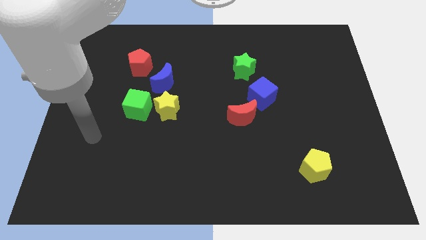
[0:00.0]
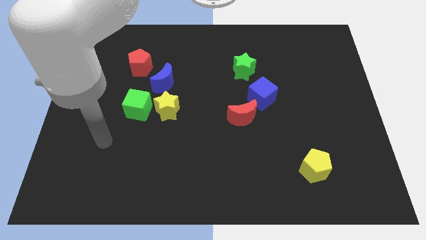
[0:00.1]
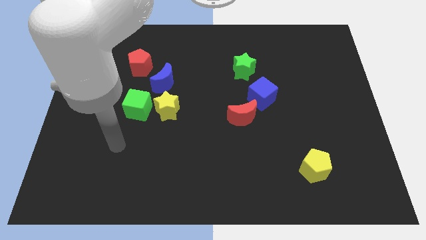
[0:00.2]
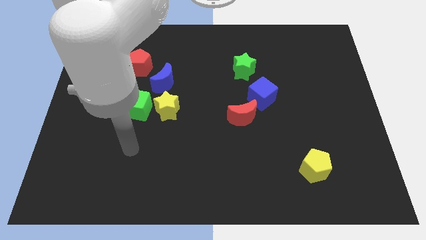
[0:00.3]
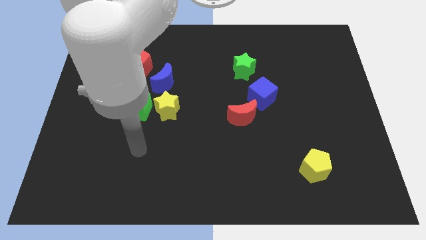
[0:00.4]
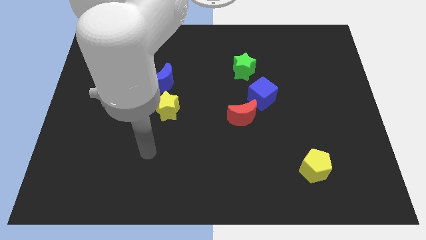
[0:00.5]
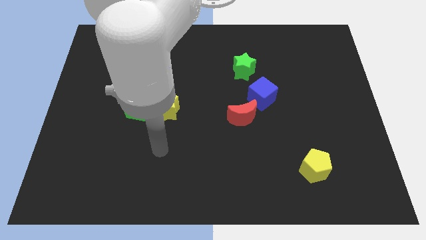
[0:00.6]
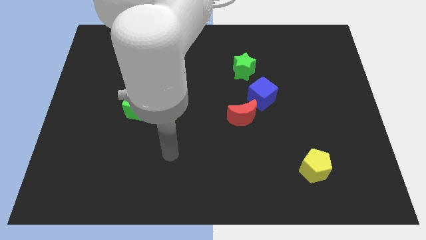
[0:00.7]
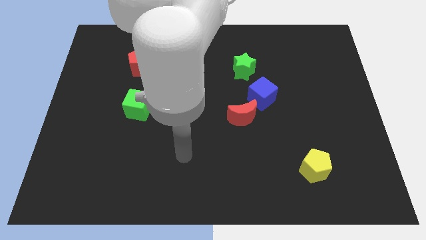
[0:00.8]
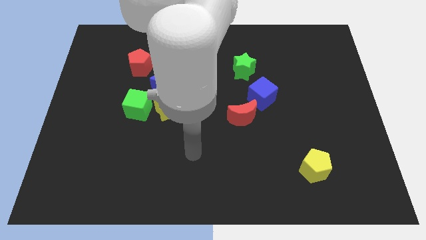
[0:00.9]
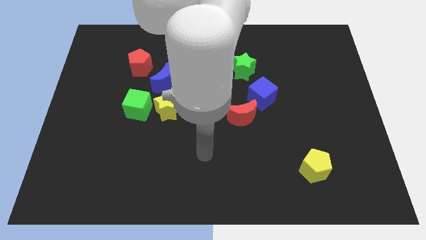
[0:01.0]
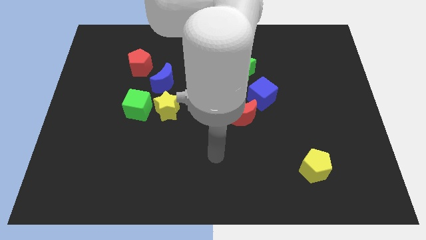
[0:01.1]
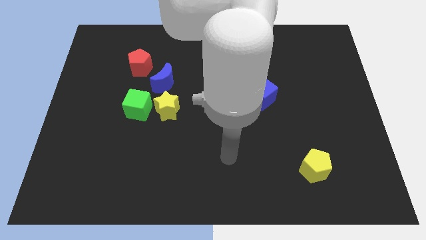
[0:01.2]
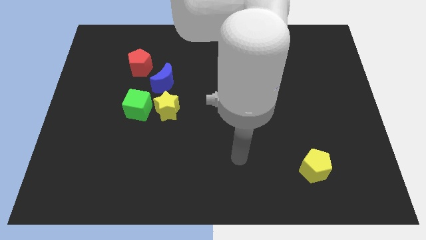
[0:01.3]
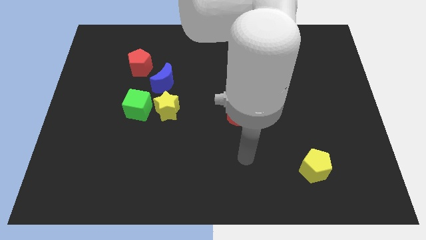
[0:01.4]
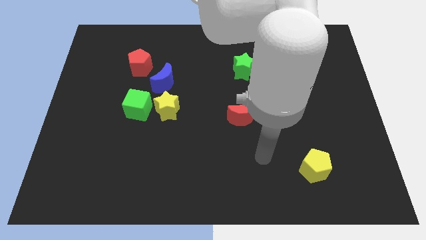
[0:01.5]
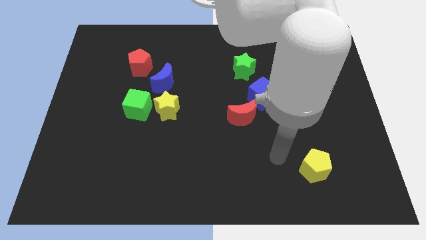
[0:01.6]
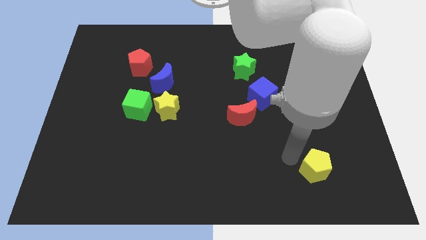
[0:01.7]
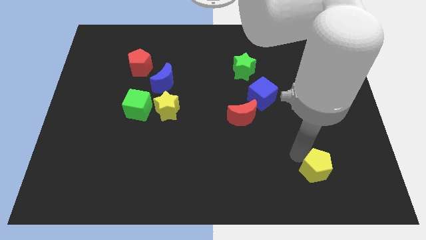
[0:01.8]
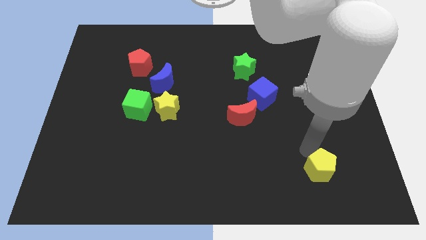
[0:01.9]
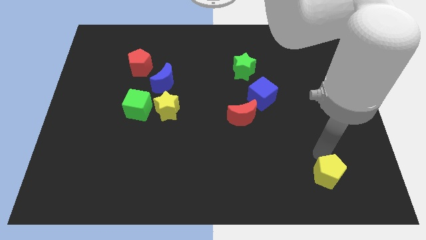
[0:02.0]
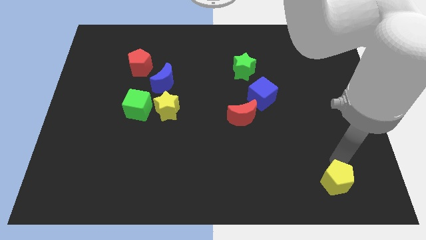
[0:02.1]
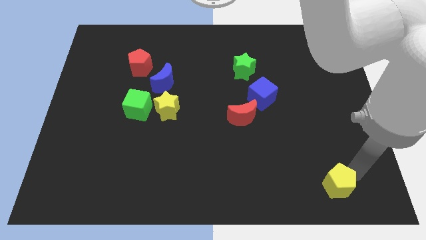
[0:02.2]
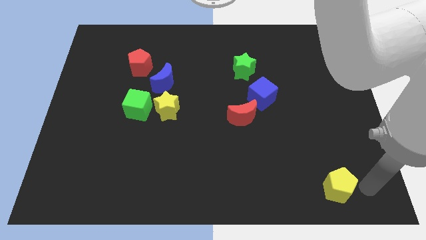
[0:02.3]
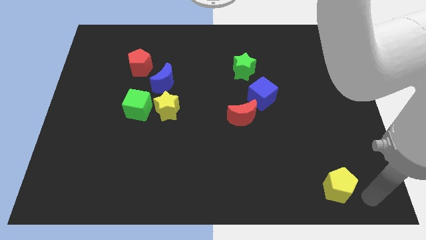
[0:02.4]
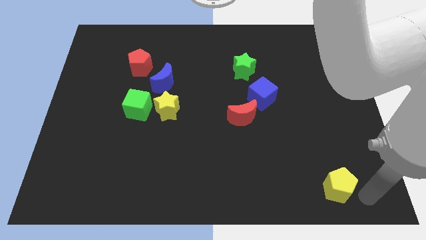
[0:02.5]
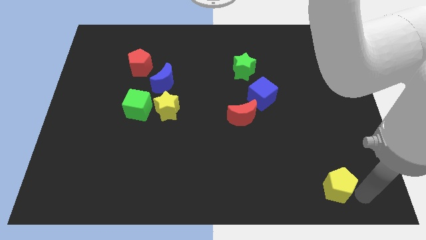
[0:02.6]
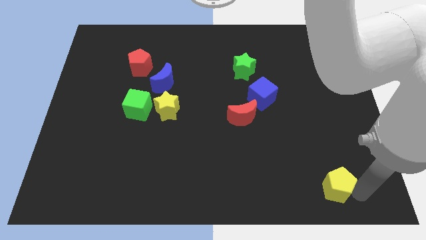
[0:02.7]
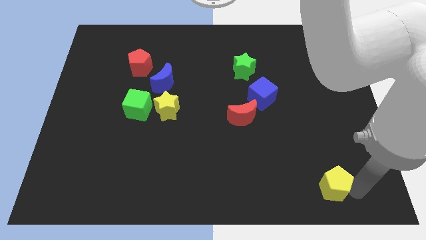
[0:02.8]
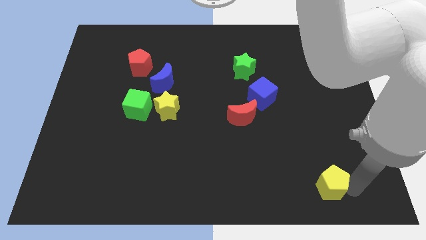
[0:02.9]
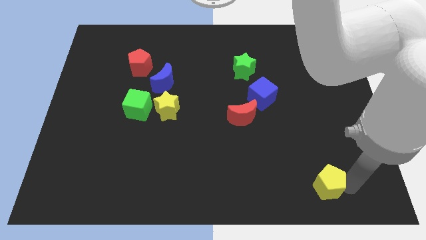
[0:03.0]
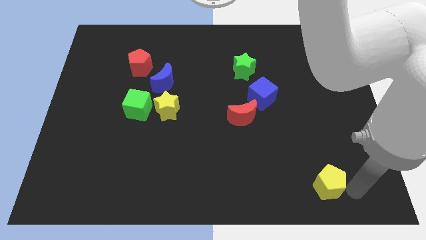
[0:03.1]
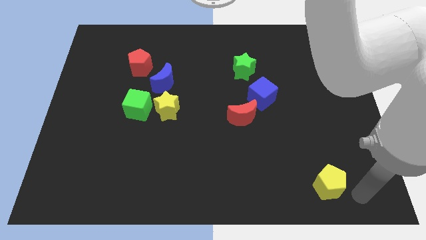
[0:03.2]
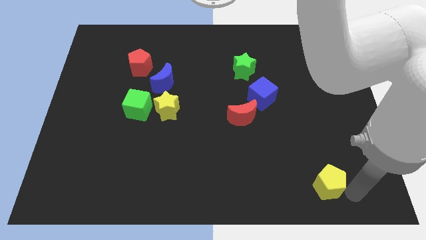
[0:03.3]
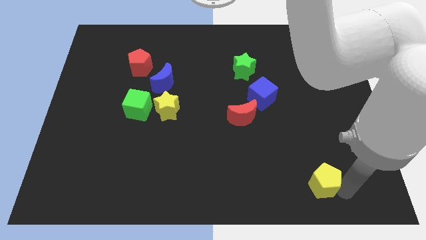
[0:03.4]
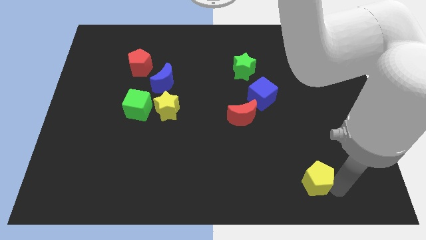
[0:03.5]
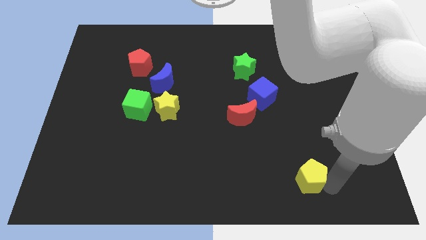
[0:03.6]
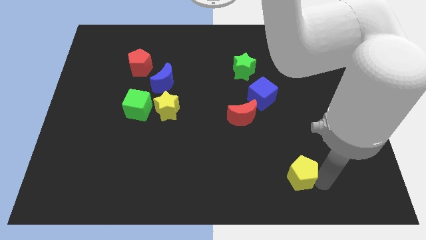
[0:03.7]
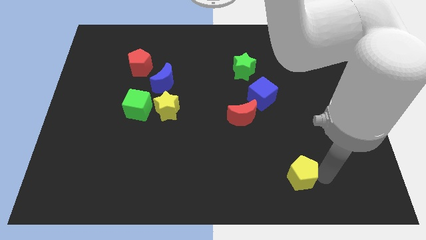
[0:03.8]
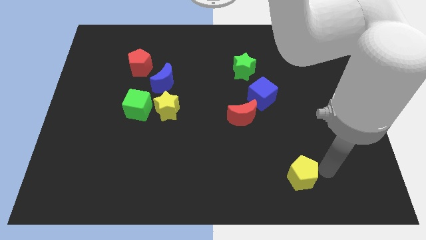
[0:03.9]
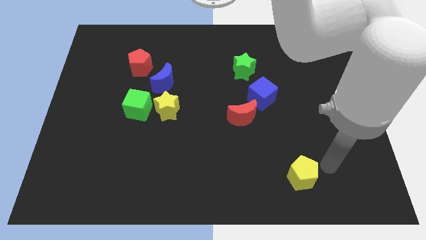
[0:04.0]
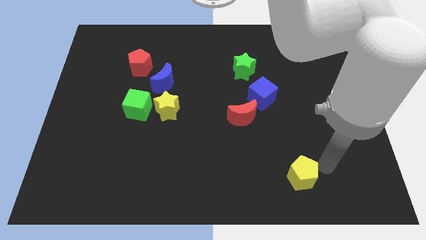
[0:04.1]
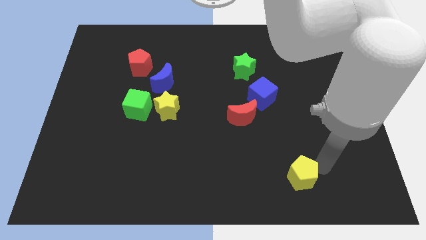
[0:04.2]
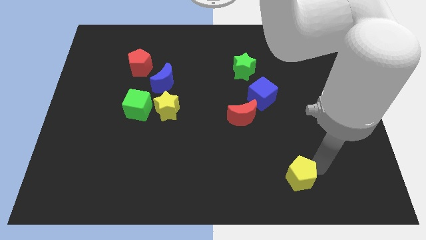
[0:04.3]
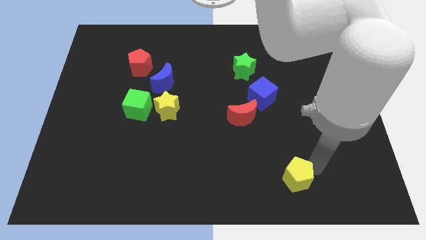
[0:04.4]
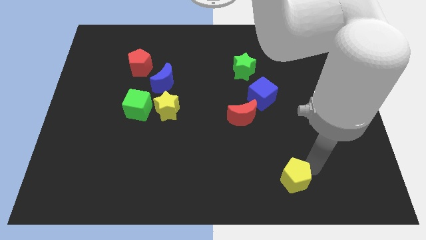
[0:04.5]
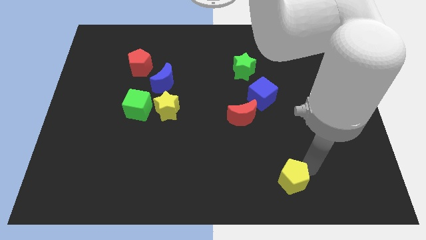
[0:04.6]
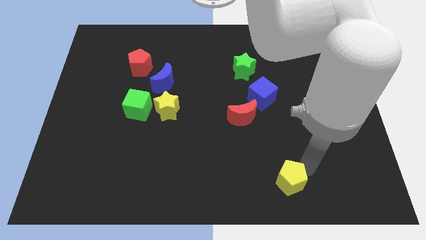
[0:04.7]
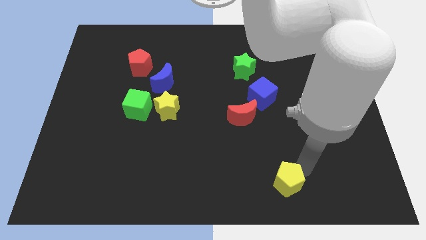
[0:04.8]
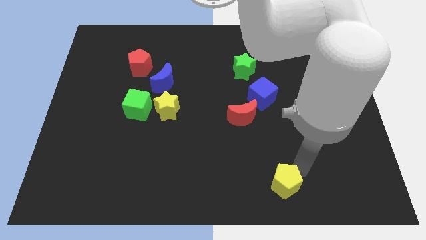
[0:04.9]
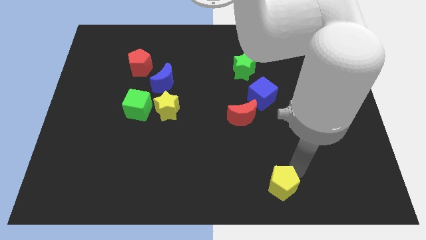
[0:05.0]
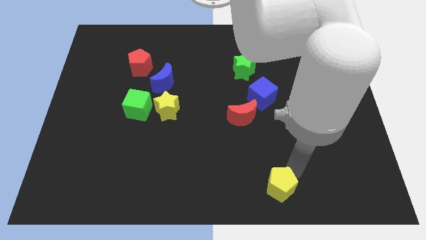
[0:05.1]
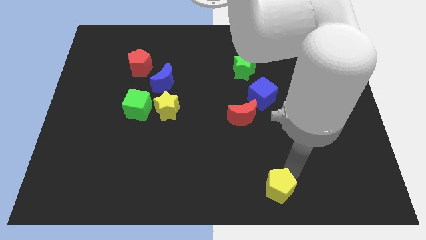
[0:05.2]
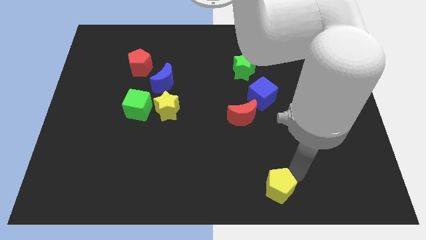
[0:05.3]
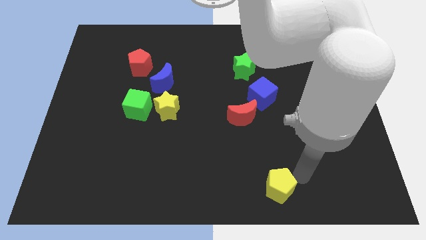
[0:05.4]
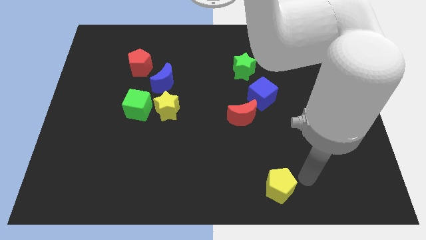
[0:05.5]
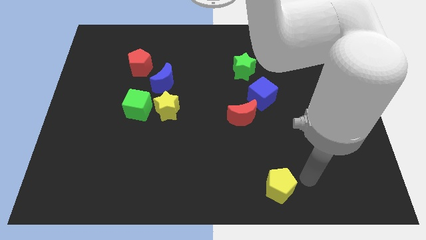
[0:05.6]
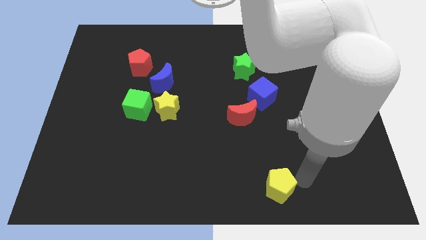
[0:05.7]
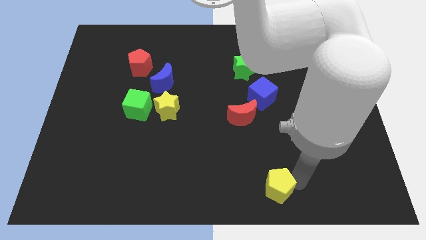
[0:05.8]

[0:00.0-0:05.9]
move the yellow pentagon to the bottom
